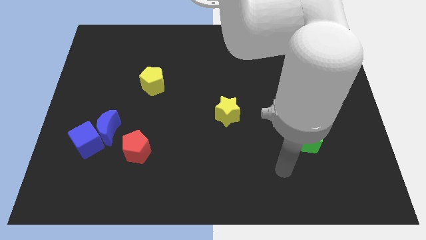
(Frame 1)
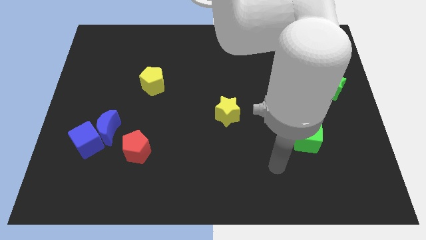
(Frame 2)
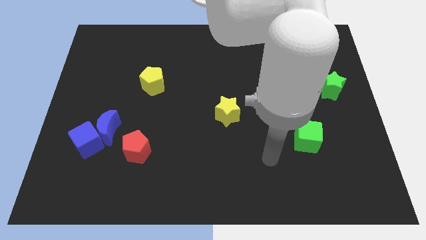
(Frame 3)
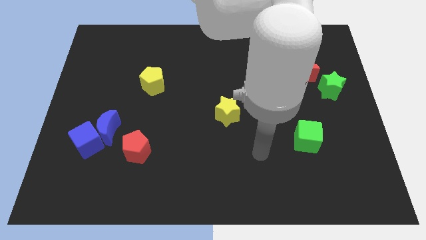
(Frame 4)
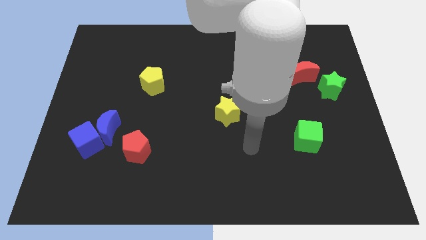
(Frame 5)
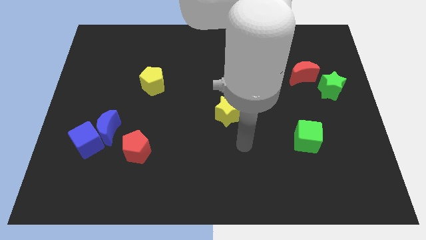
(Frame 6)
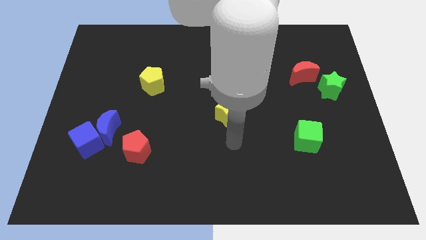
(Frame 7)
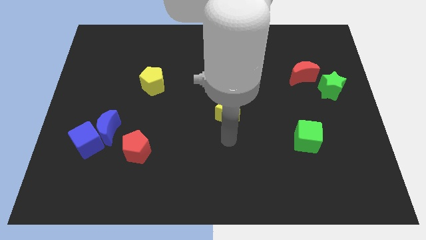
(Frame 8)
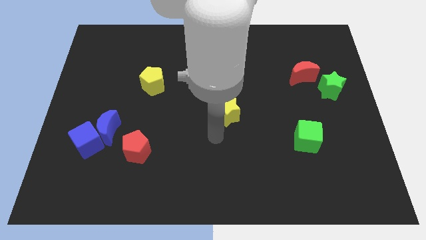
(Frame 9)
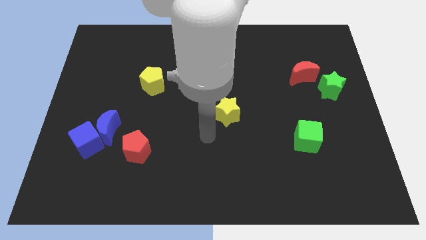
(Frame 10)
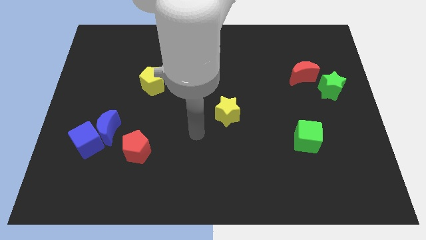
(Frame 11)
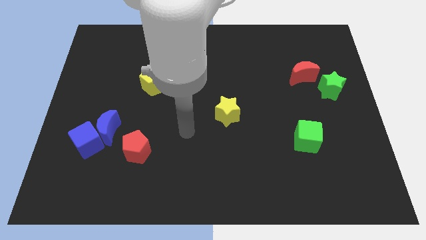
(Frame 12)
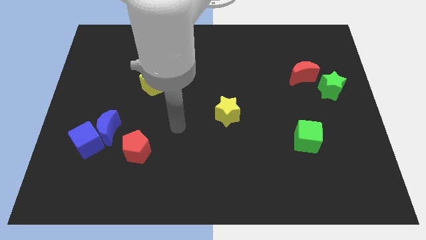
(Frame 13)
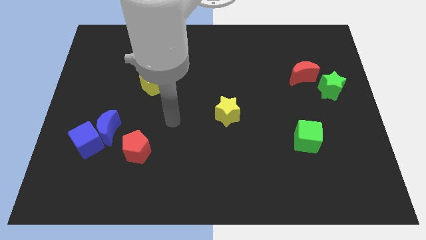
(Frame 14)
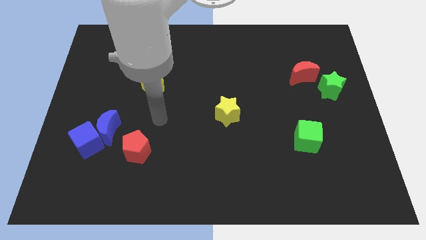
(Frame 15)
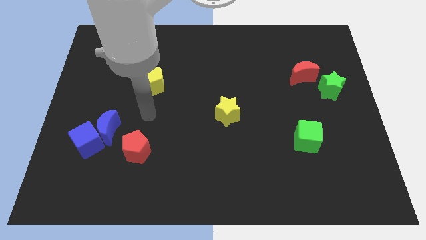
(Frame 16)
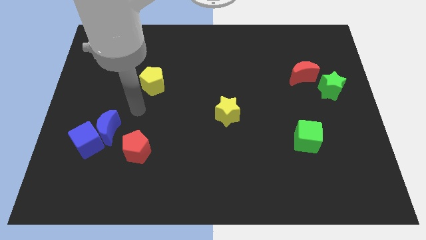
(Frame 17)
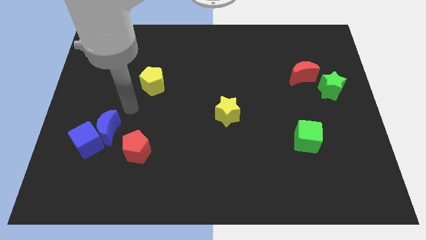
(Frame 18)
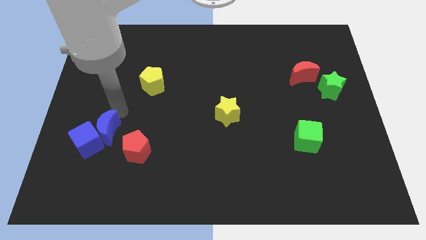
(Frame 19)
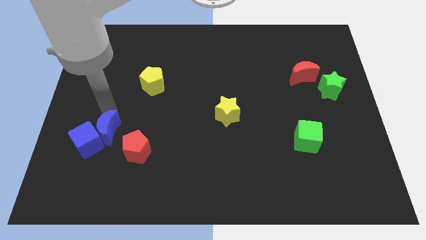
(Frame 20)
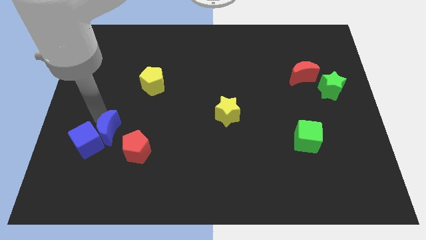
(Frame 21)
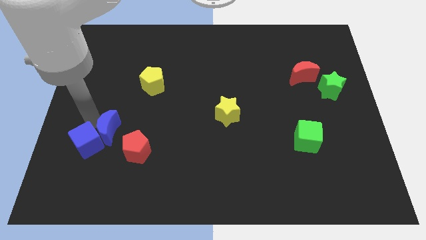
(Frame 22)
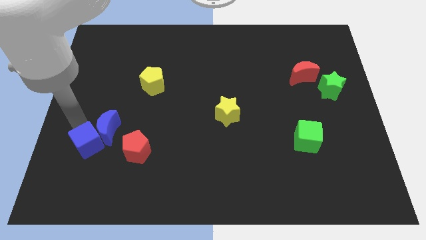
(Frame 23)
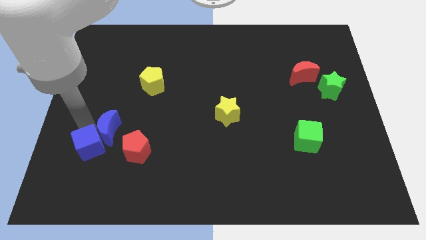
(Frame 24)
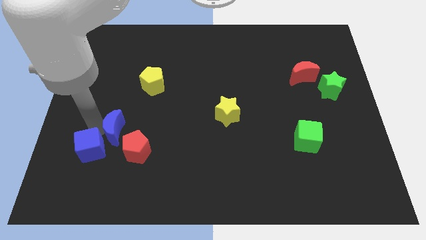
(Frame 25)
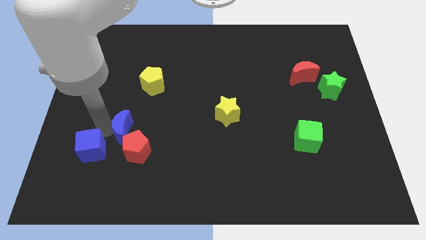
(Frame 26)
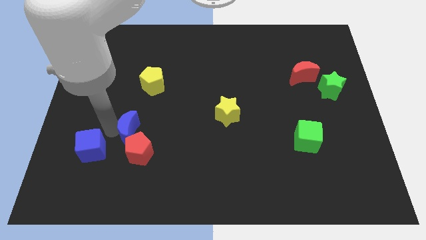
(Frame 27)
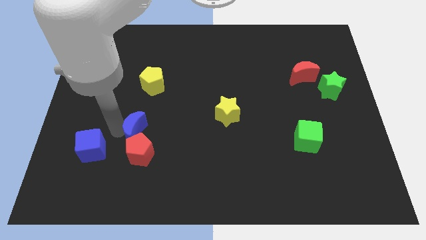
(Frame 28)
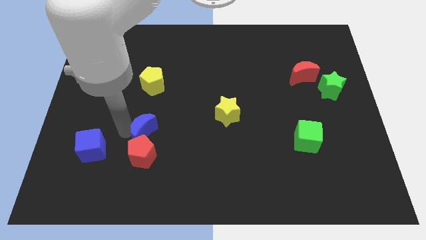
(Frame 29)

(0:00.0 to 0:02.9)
slightly slide the blue moon to the right

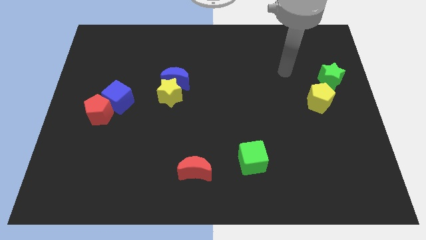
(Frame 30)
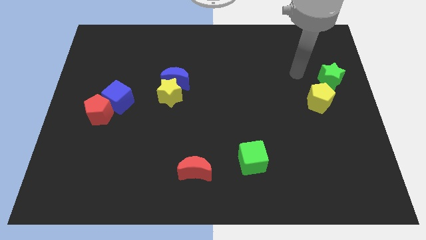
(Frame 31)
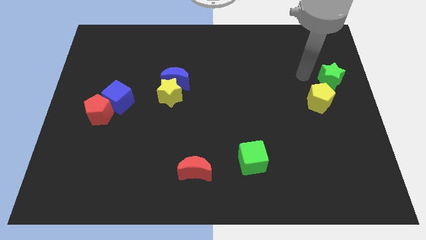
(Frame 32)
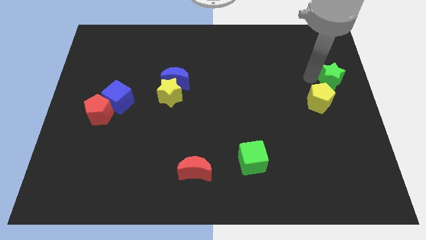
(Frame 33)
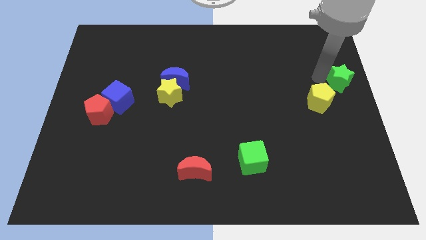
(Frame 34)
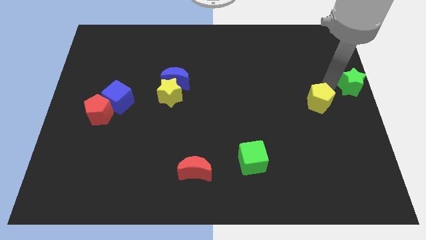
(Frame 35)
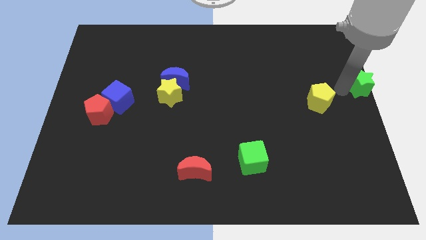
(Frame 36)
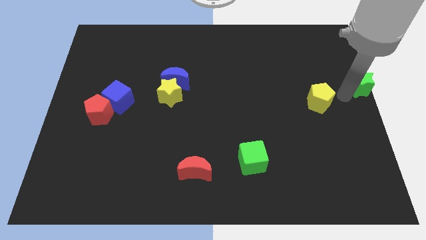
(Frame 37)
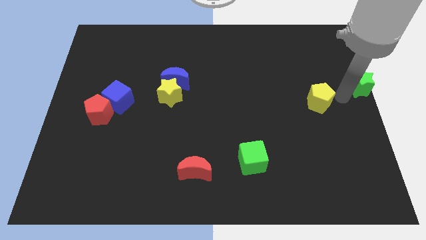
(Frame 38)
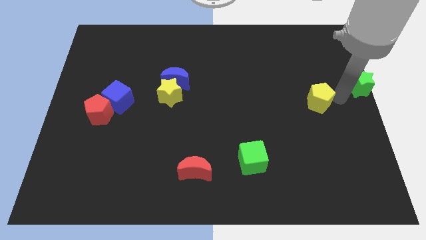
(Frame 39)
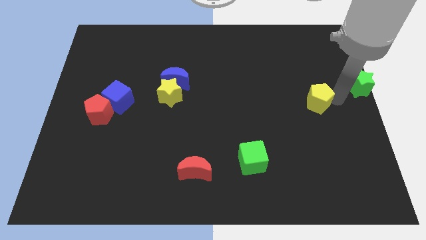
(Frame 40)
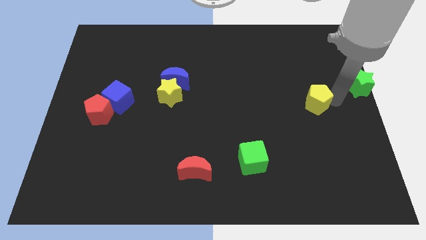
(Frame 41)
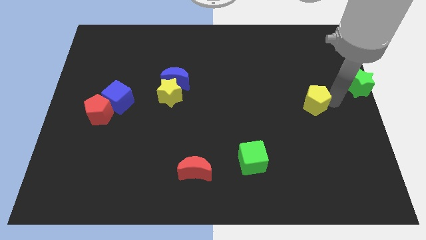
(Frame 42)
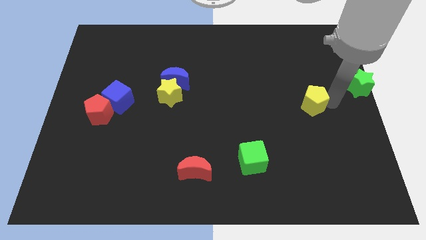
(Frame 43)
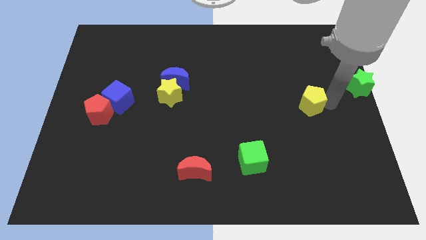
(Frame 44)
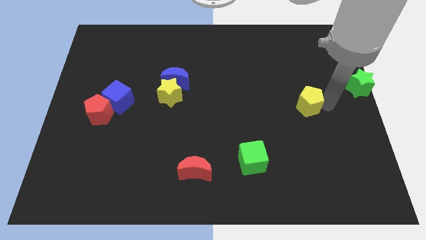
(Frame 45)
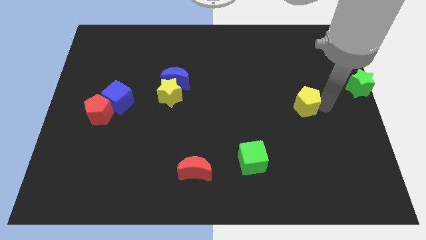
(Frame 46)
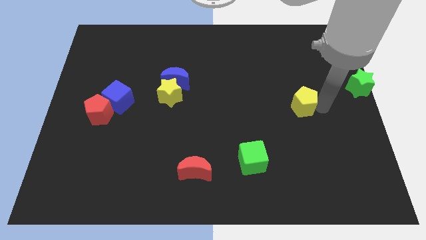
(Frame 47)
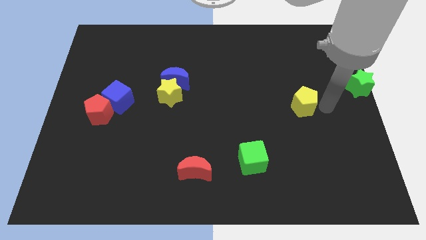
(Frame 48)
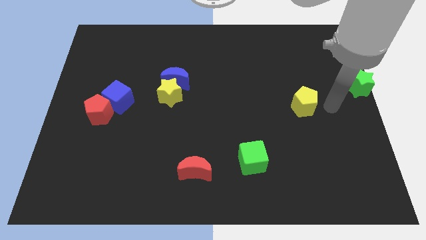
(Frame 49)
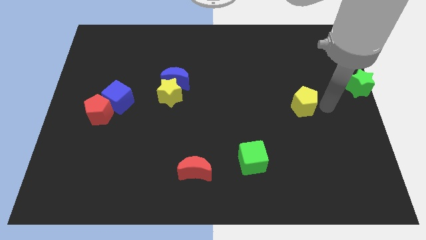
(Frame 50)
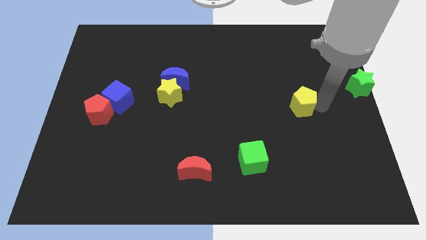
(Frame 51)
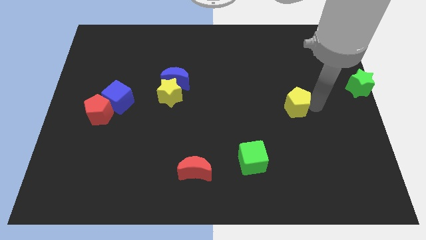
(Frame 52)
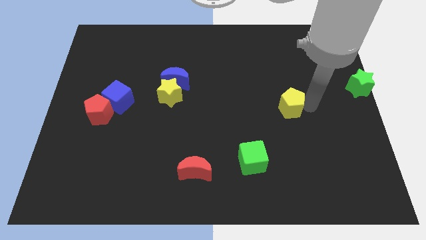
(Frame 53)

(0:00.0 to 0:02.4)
slightly move the yellow pentagon to the left

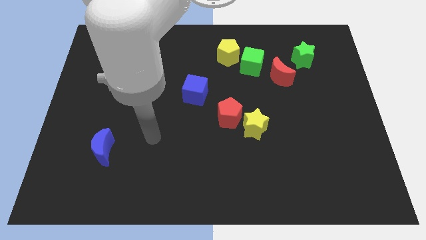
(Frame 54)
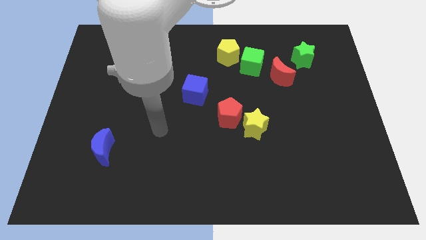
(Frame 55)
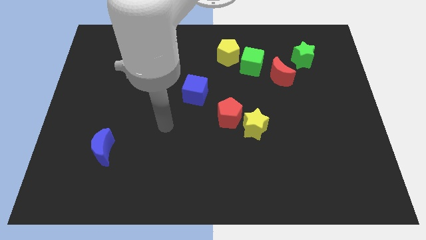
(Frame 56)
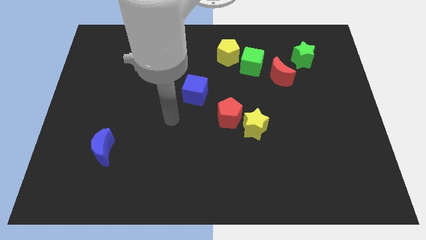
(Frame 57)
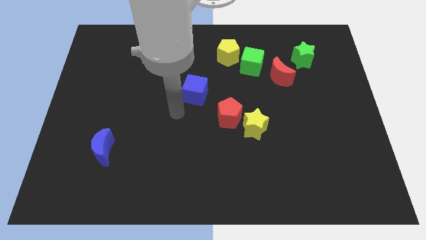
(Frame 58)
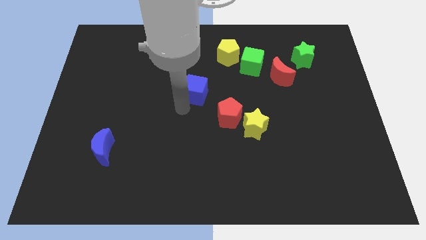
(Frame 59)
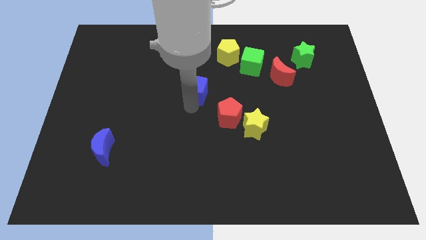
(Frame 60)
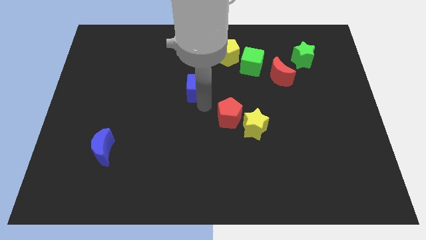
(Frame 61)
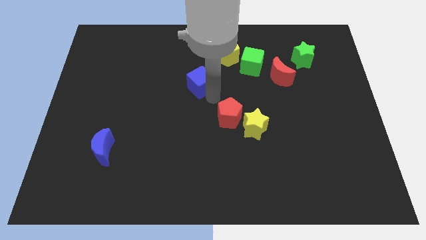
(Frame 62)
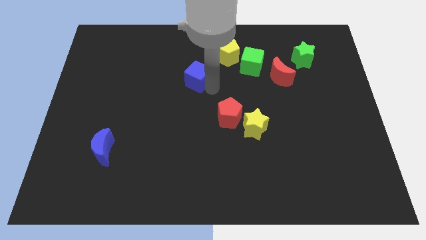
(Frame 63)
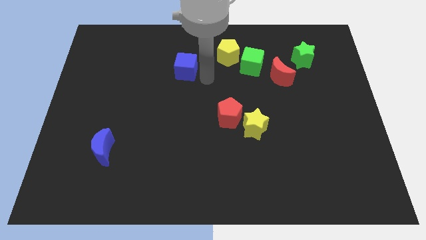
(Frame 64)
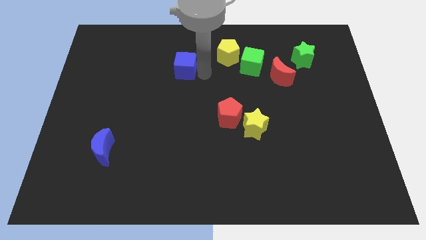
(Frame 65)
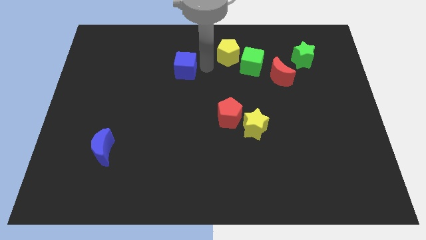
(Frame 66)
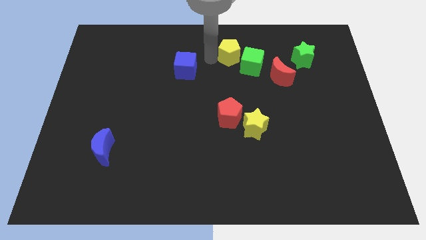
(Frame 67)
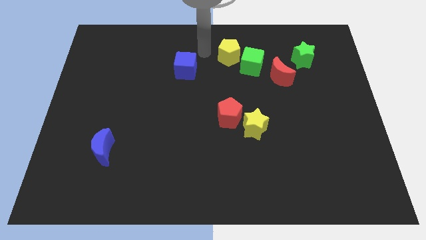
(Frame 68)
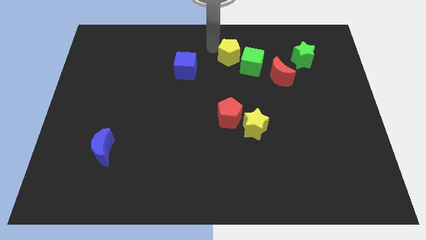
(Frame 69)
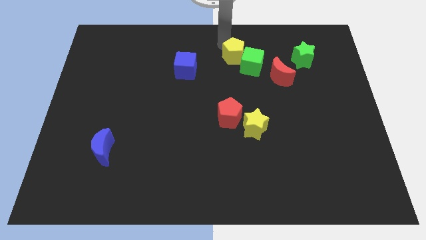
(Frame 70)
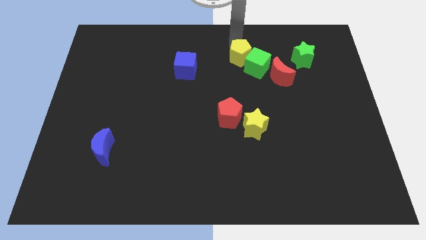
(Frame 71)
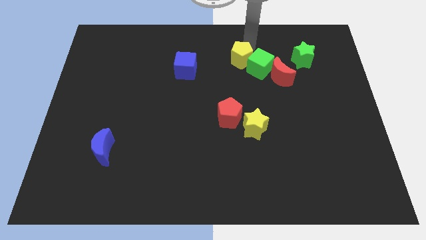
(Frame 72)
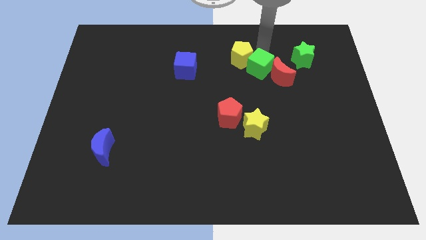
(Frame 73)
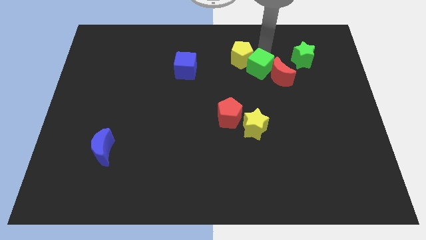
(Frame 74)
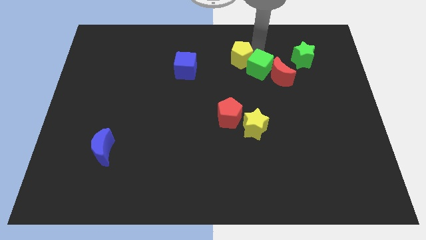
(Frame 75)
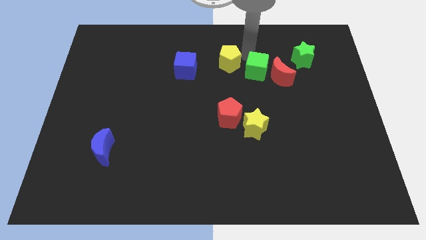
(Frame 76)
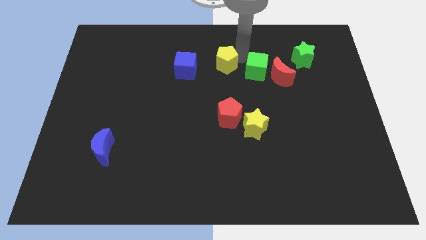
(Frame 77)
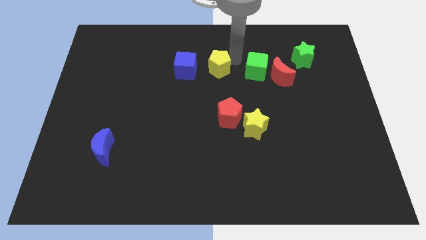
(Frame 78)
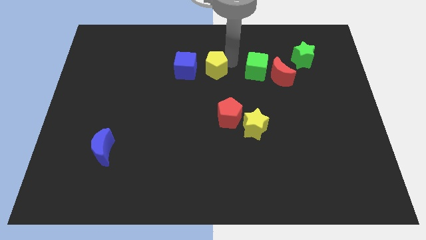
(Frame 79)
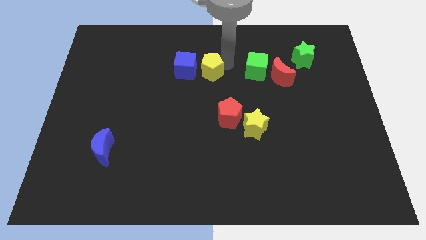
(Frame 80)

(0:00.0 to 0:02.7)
slightly slide the yellow pentagon diagonally downwards and to the left

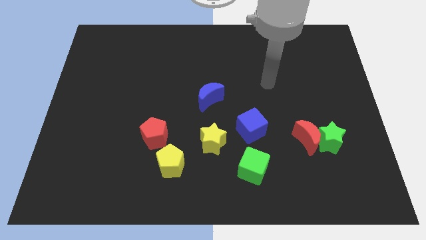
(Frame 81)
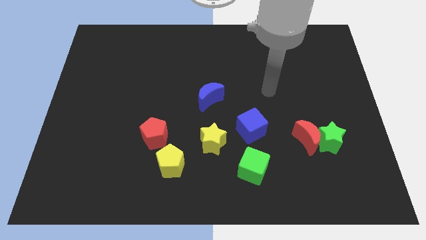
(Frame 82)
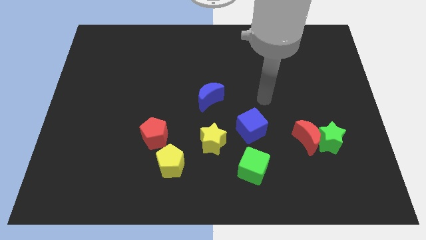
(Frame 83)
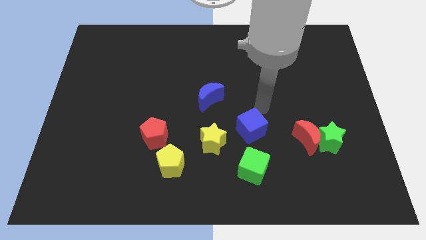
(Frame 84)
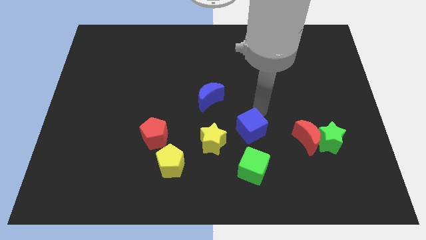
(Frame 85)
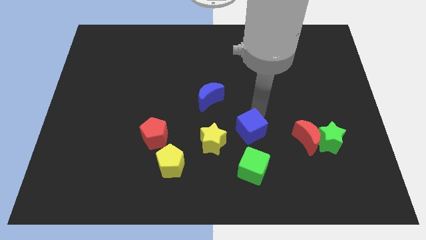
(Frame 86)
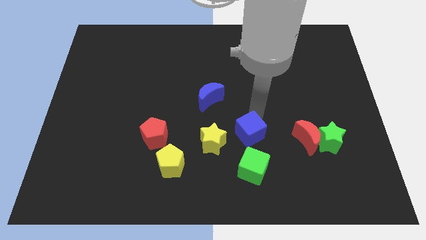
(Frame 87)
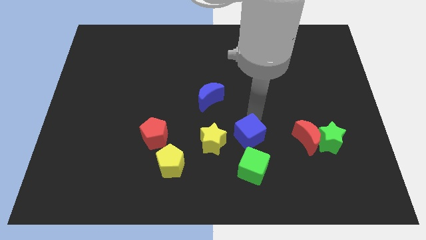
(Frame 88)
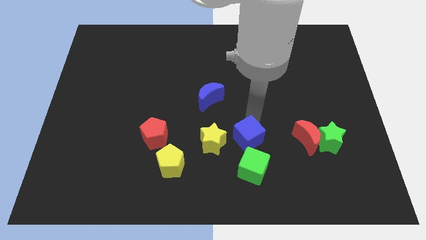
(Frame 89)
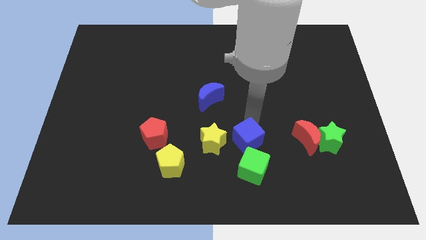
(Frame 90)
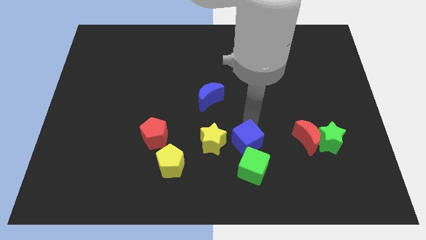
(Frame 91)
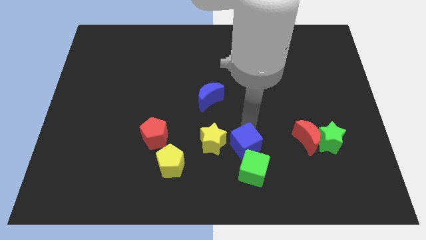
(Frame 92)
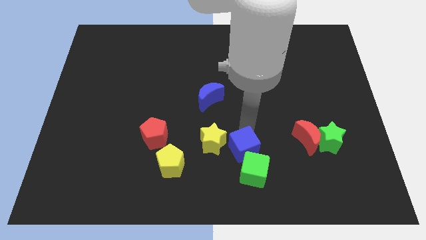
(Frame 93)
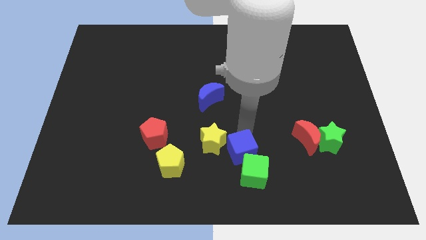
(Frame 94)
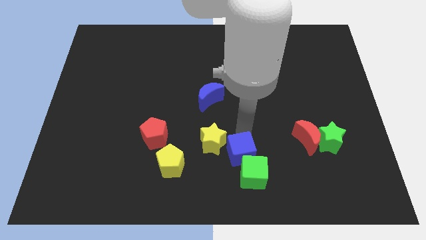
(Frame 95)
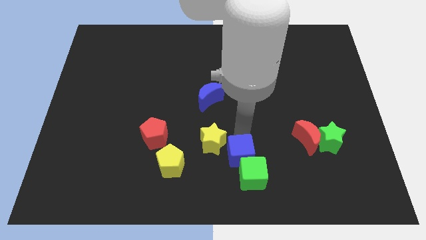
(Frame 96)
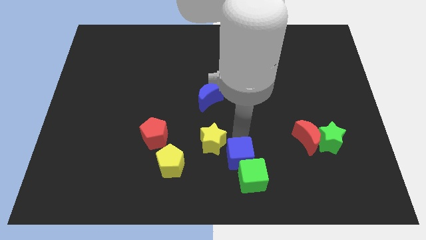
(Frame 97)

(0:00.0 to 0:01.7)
slide the blue cube somewhat down and then left
